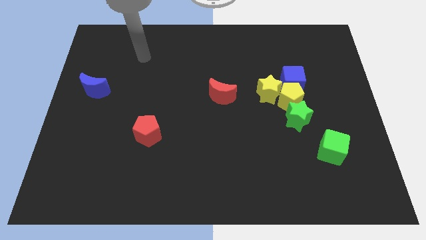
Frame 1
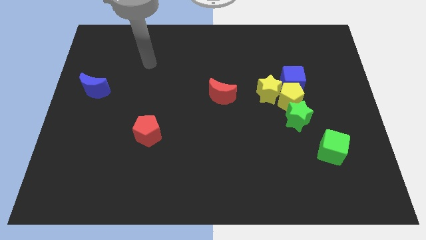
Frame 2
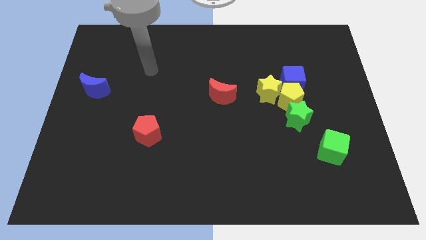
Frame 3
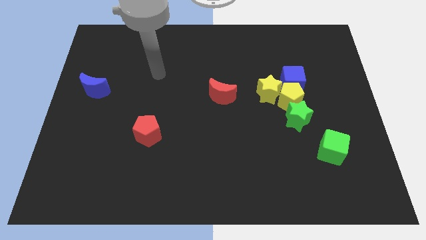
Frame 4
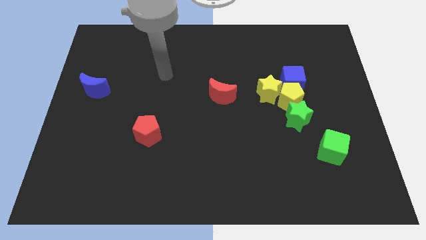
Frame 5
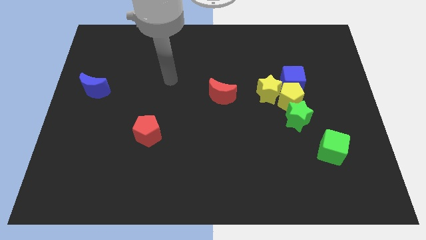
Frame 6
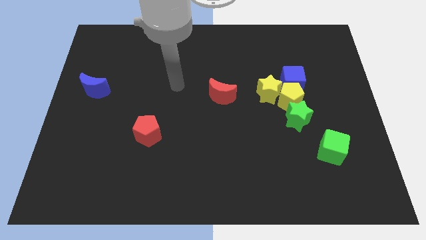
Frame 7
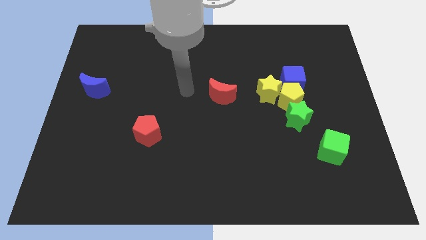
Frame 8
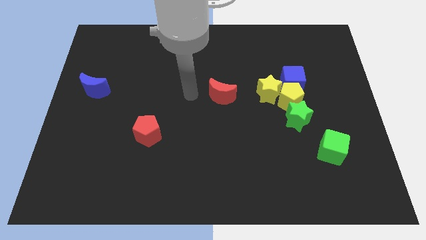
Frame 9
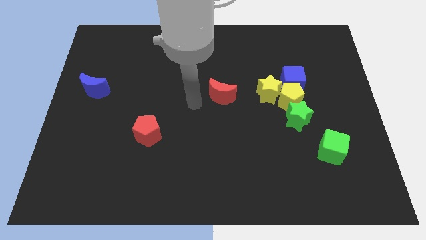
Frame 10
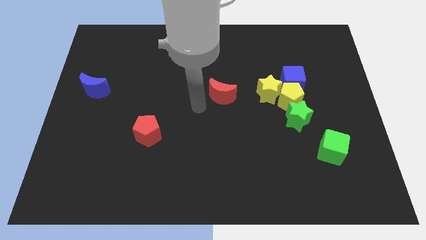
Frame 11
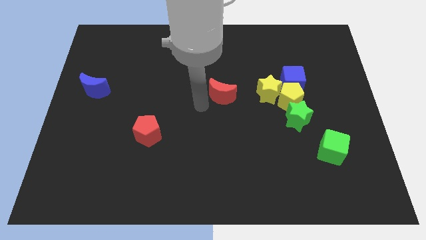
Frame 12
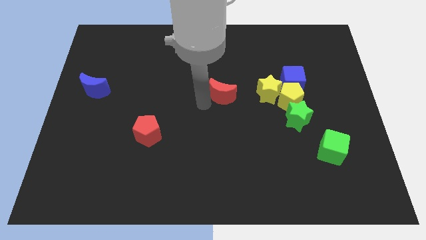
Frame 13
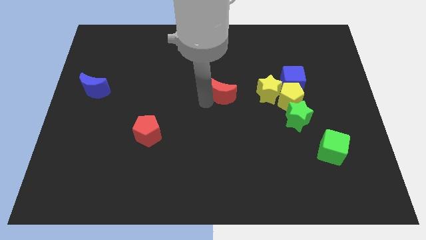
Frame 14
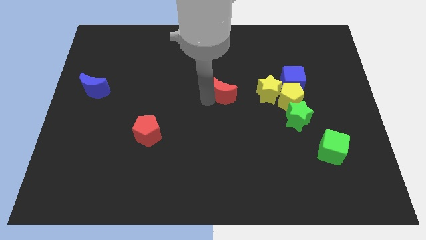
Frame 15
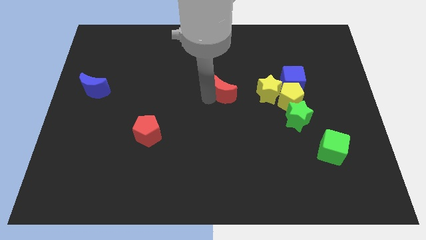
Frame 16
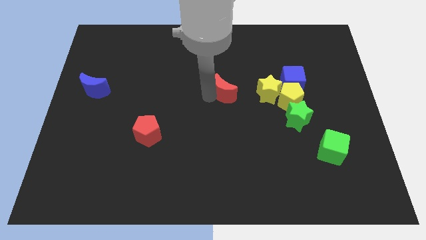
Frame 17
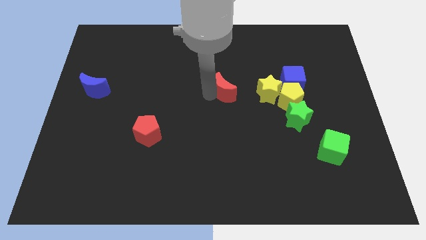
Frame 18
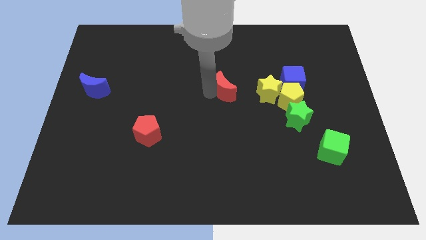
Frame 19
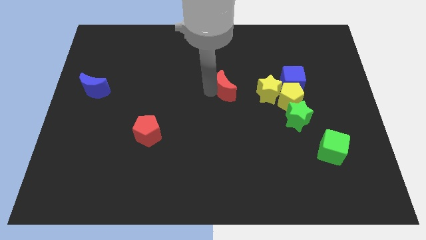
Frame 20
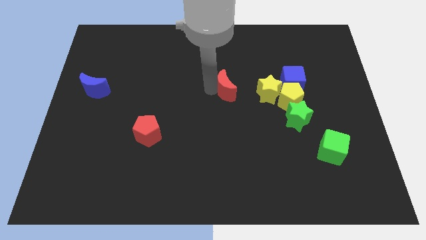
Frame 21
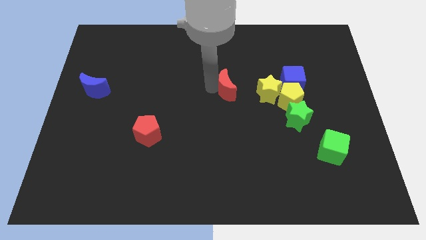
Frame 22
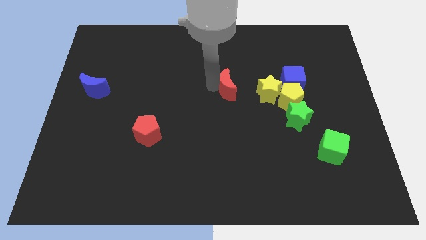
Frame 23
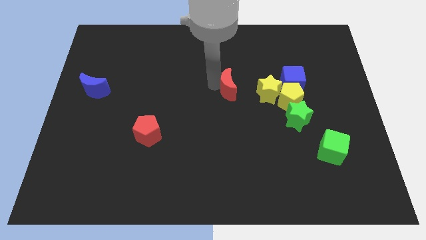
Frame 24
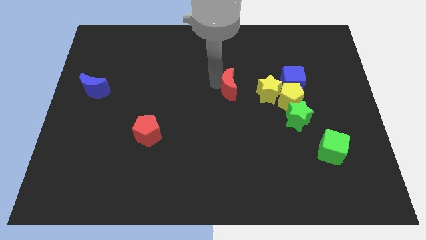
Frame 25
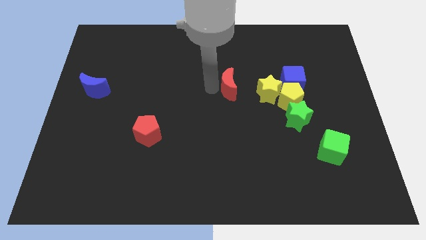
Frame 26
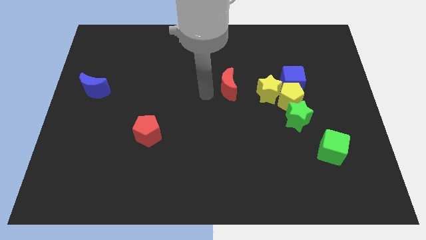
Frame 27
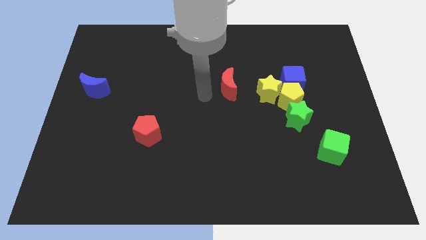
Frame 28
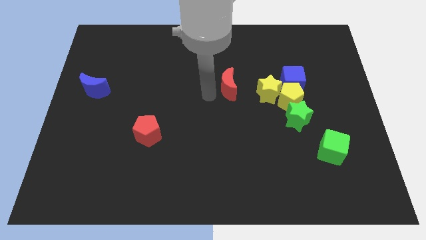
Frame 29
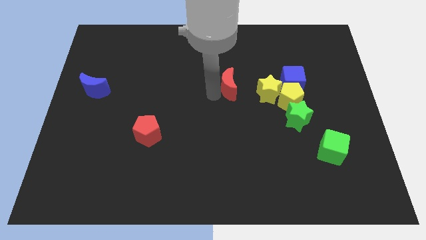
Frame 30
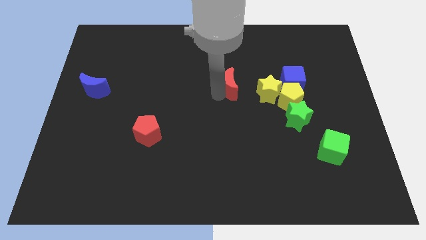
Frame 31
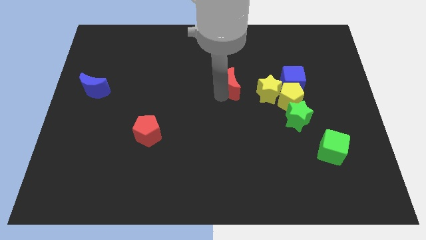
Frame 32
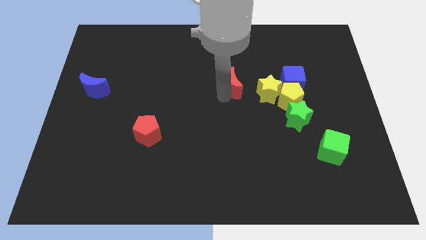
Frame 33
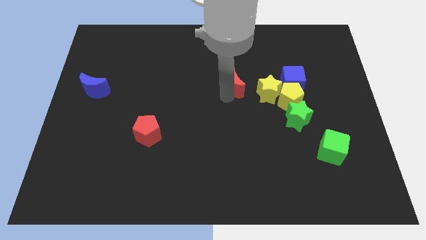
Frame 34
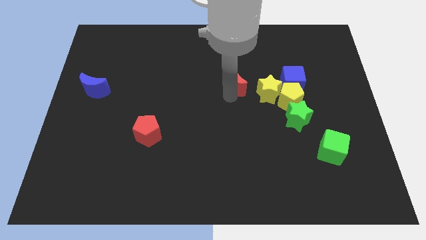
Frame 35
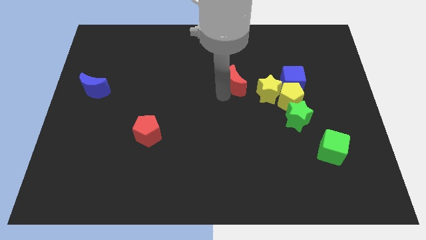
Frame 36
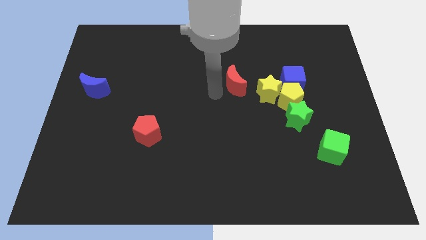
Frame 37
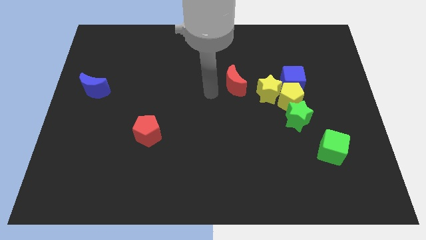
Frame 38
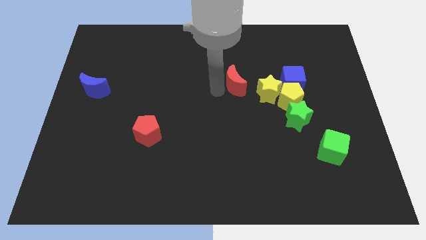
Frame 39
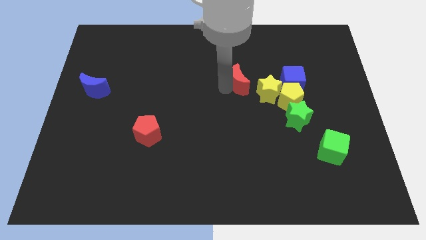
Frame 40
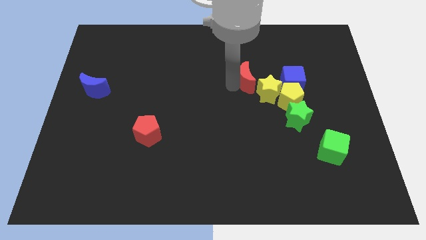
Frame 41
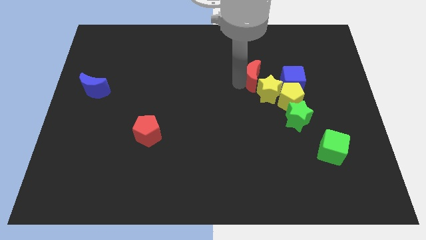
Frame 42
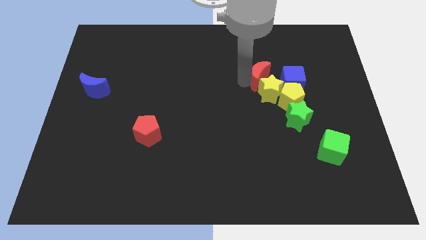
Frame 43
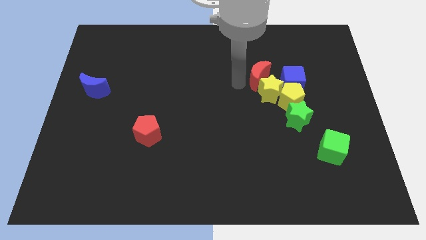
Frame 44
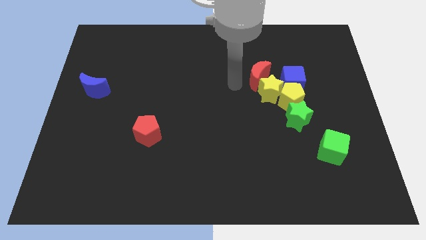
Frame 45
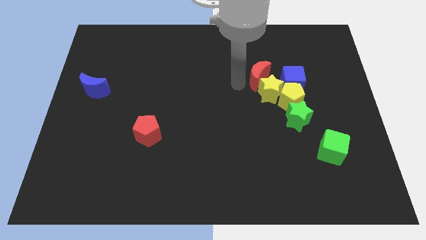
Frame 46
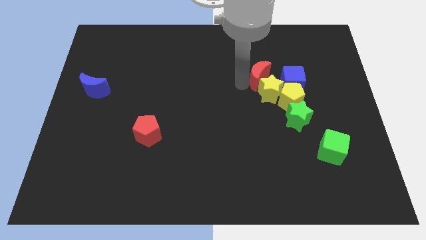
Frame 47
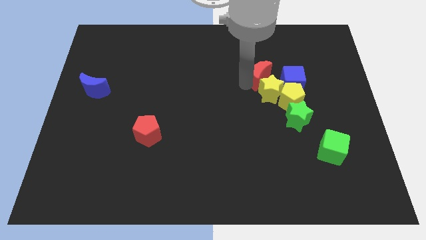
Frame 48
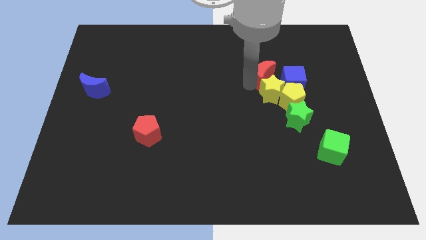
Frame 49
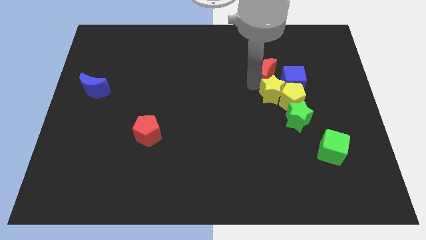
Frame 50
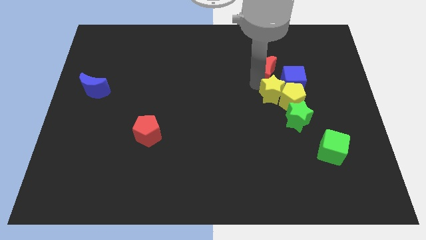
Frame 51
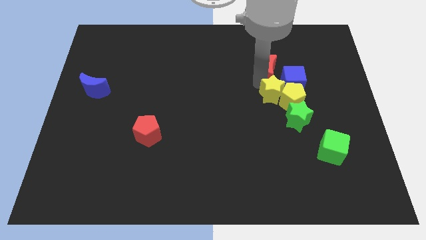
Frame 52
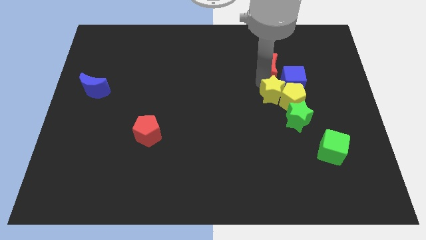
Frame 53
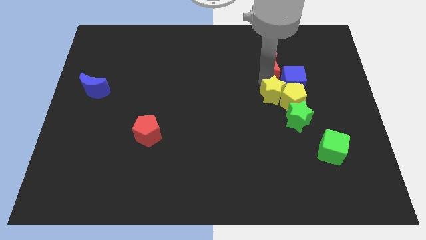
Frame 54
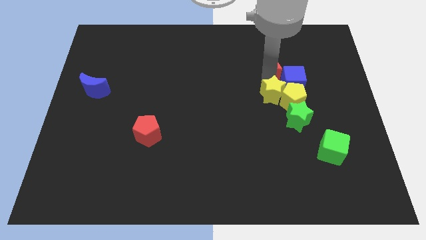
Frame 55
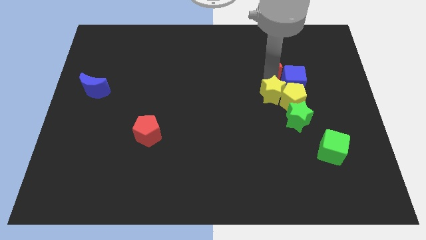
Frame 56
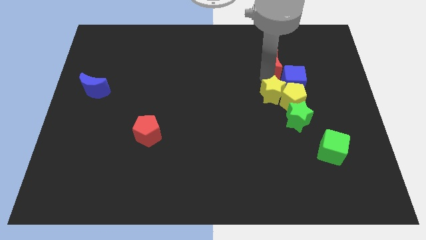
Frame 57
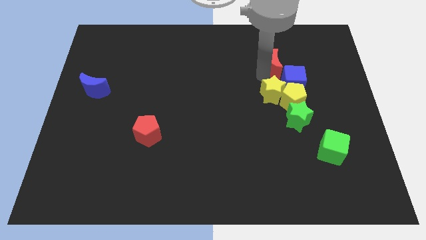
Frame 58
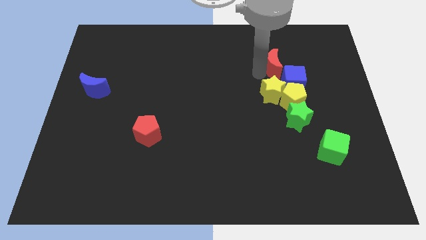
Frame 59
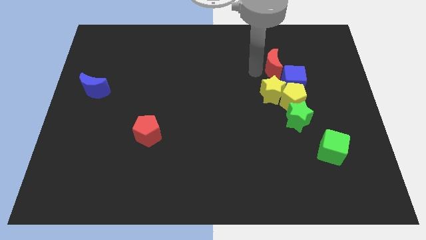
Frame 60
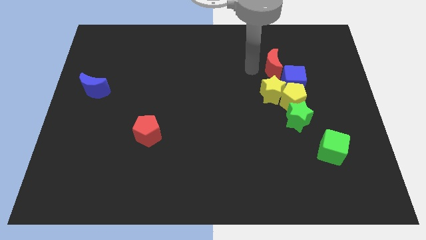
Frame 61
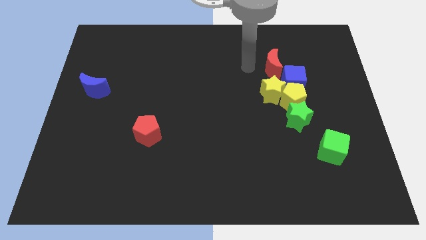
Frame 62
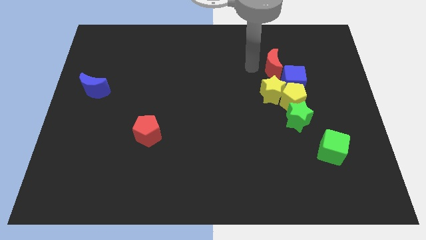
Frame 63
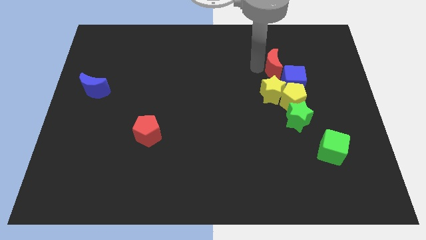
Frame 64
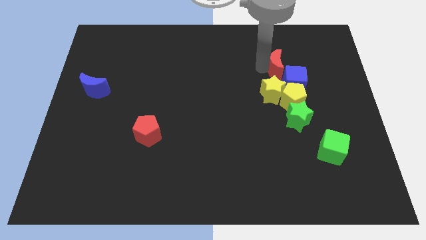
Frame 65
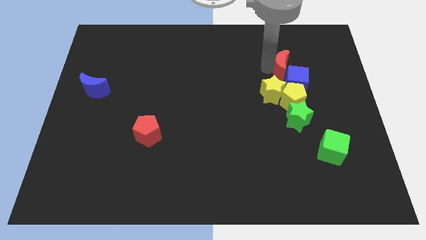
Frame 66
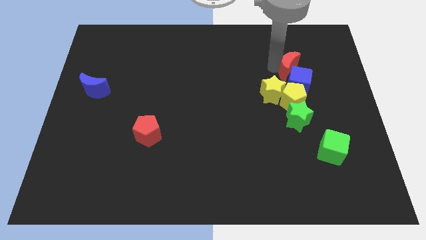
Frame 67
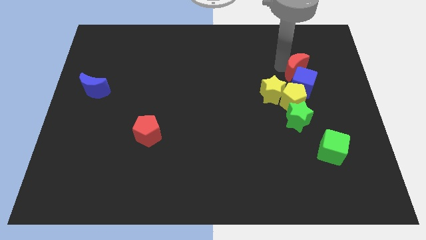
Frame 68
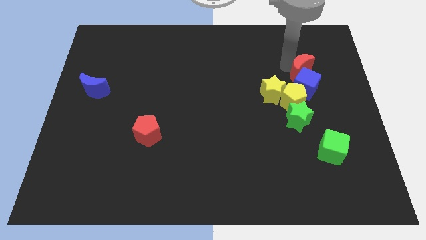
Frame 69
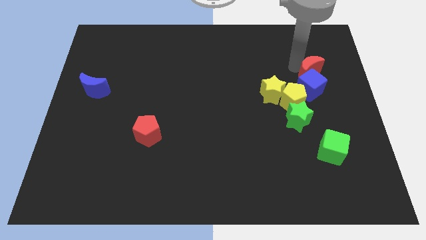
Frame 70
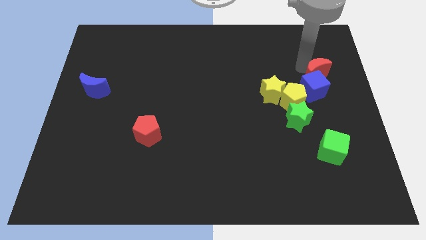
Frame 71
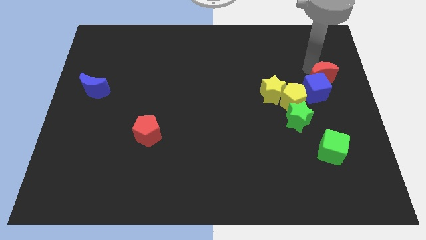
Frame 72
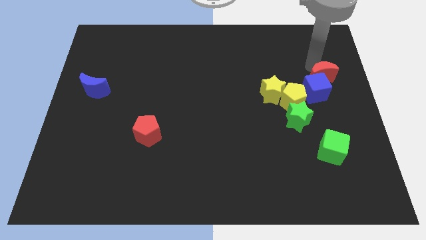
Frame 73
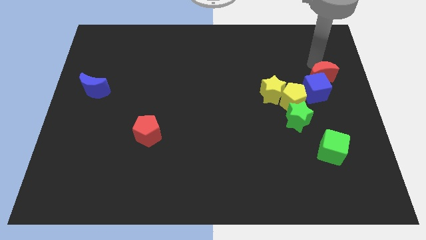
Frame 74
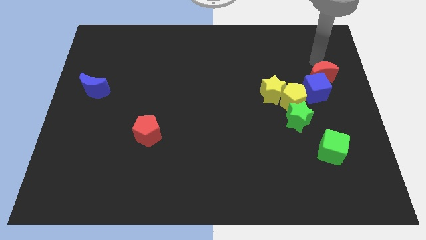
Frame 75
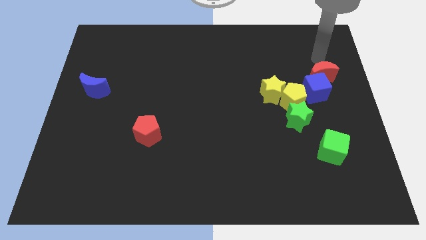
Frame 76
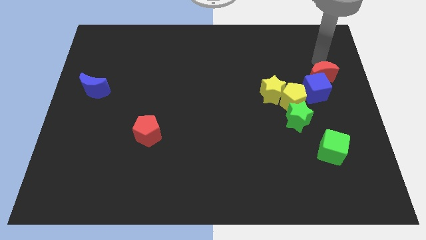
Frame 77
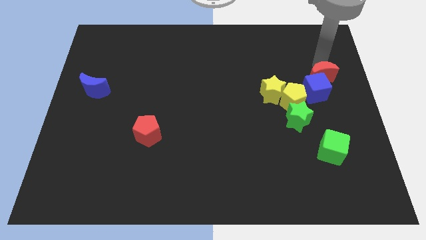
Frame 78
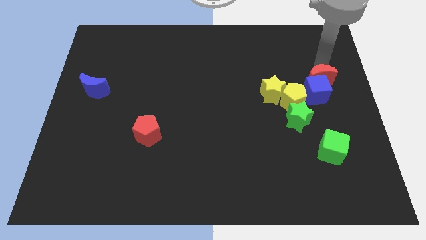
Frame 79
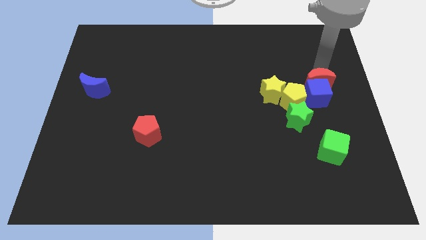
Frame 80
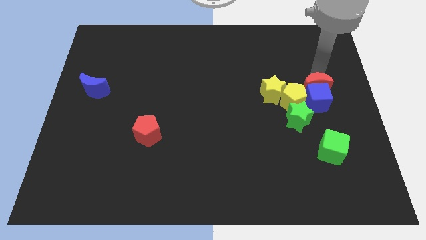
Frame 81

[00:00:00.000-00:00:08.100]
push the red moon to the right side of the yellow pentagon
